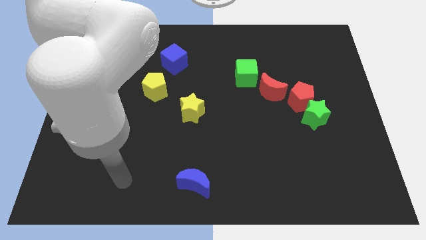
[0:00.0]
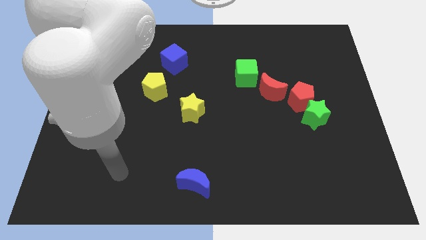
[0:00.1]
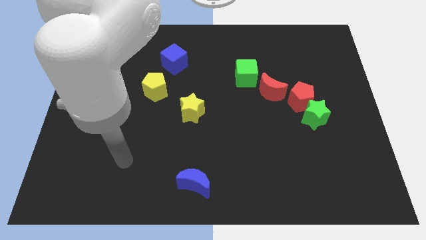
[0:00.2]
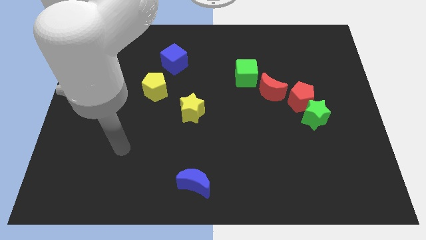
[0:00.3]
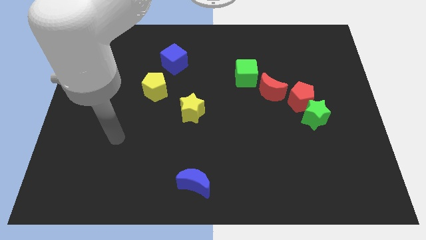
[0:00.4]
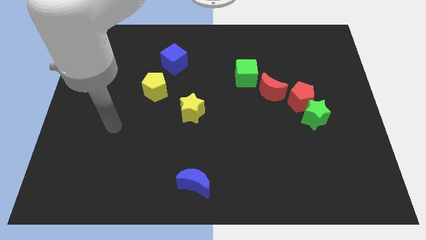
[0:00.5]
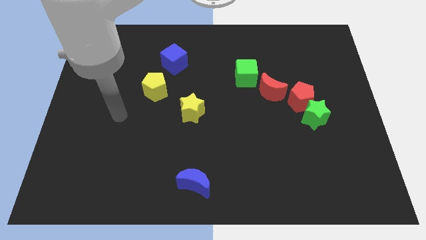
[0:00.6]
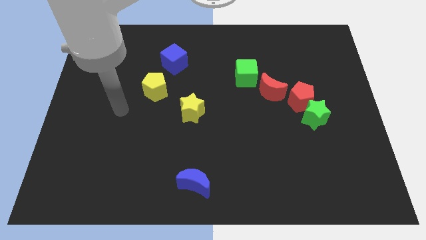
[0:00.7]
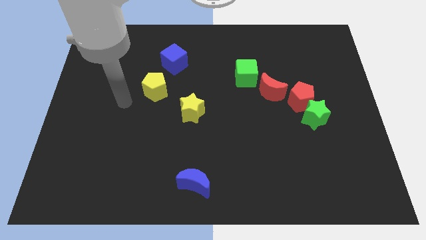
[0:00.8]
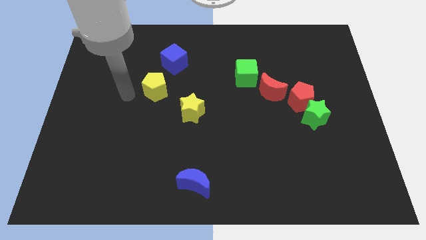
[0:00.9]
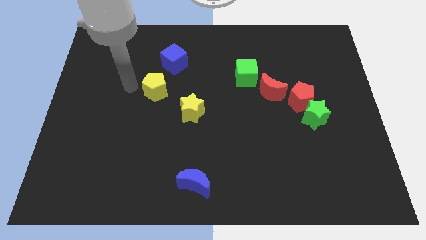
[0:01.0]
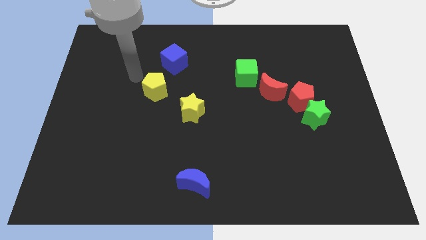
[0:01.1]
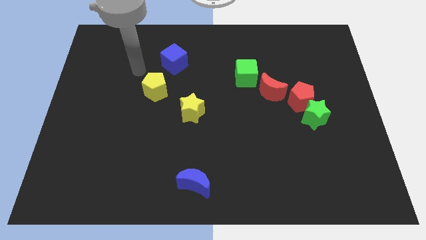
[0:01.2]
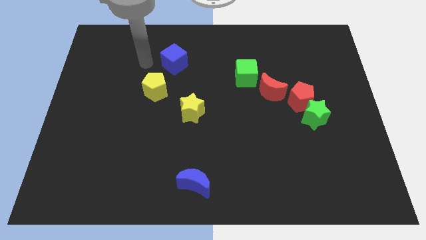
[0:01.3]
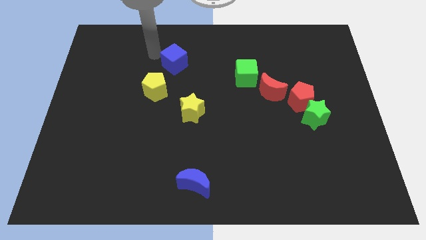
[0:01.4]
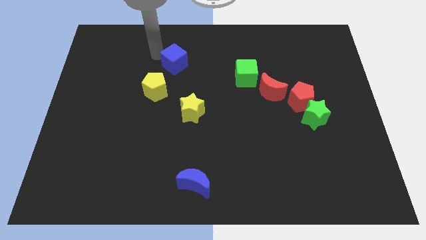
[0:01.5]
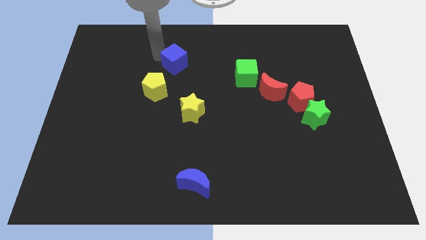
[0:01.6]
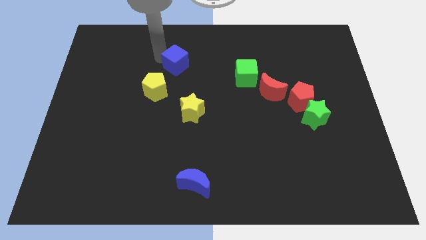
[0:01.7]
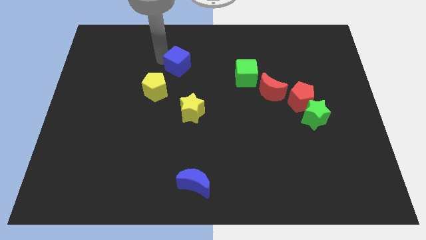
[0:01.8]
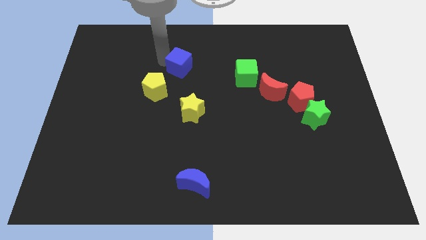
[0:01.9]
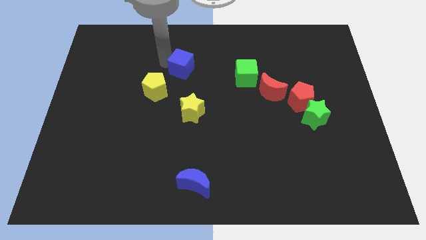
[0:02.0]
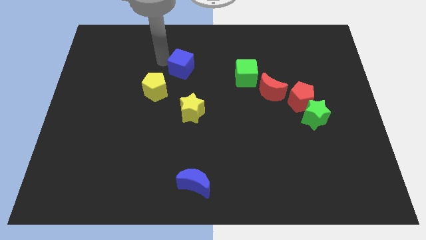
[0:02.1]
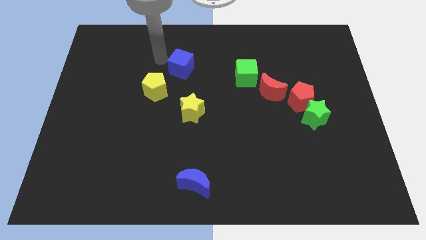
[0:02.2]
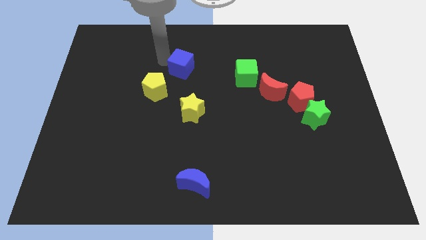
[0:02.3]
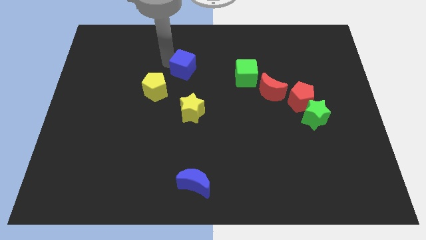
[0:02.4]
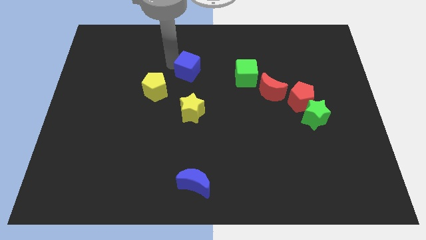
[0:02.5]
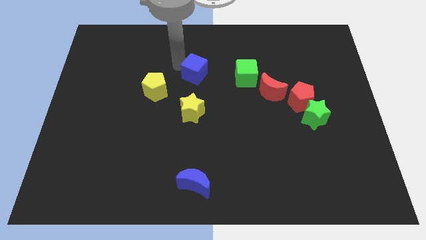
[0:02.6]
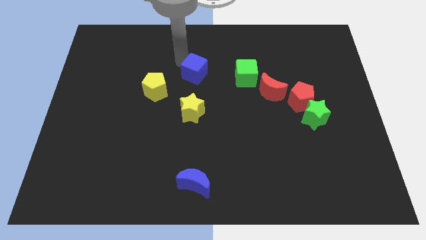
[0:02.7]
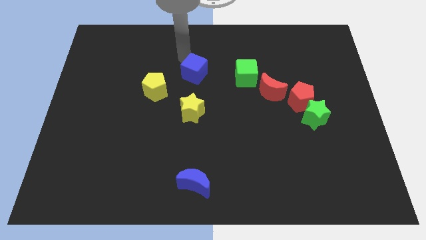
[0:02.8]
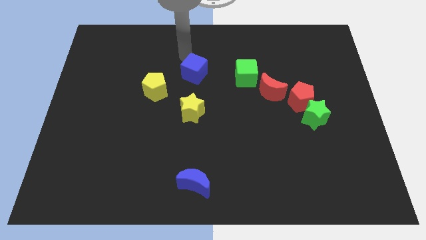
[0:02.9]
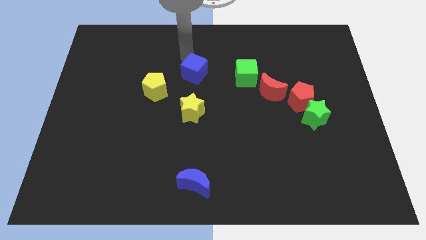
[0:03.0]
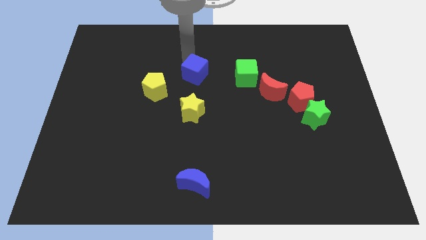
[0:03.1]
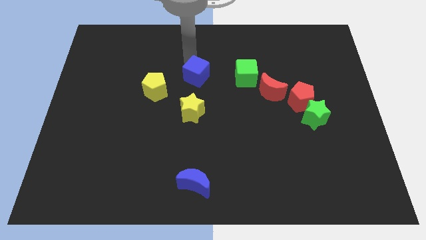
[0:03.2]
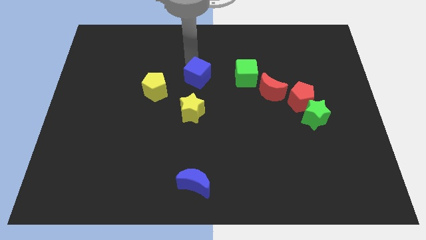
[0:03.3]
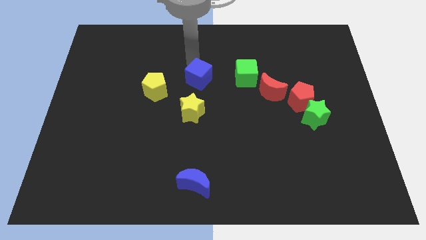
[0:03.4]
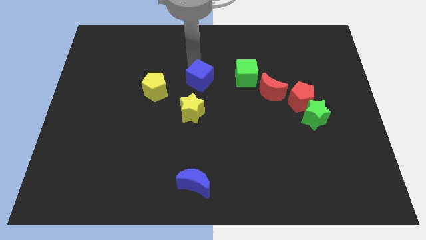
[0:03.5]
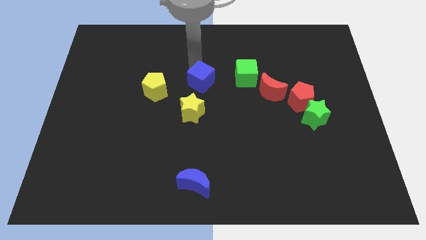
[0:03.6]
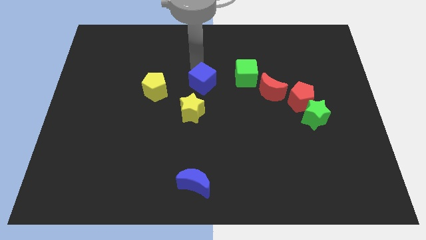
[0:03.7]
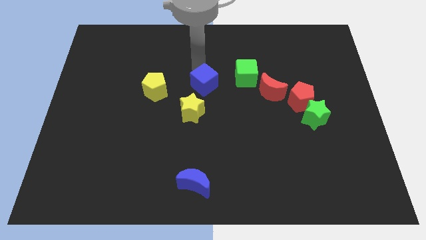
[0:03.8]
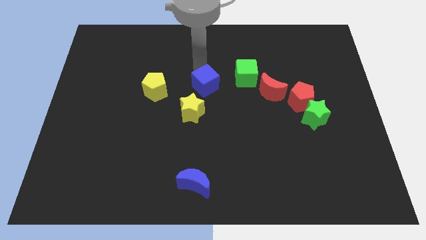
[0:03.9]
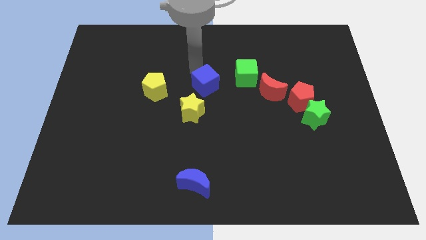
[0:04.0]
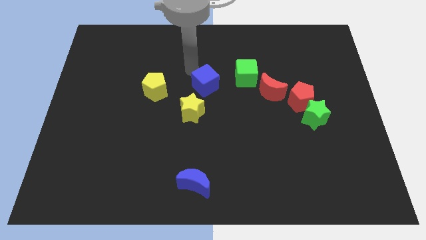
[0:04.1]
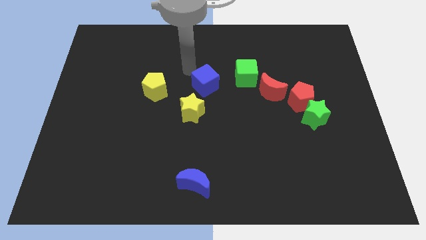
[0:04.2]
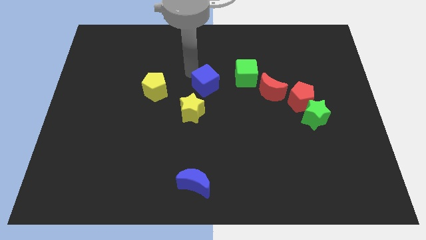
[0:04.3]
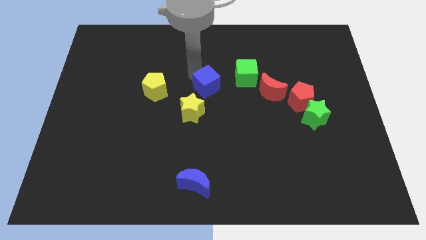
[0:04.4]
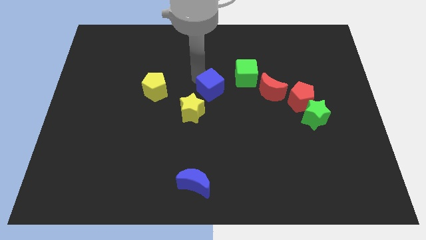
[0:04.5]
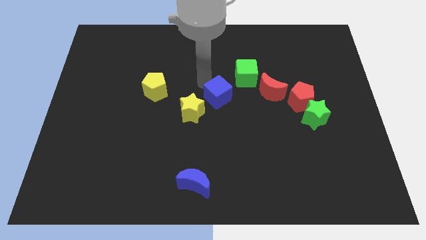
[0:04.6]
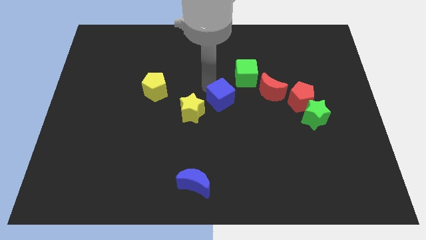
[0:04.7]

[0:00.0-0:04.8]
put the blue cube to the right of the yellow star

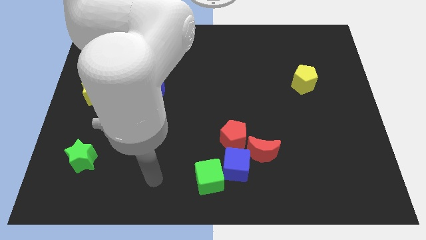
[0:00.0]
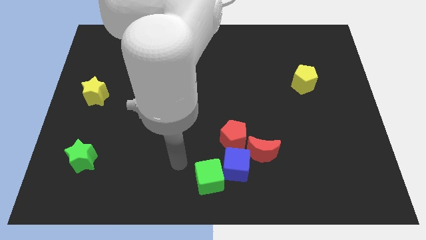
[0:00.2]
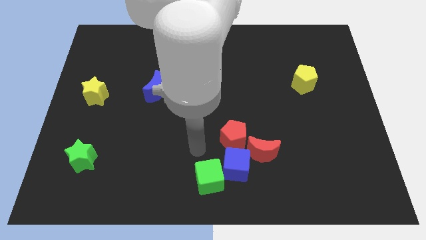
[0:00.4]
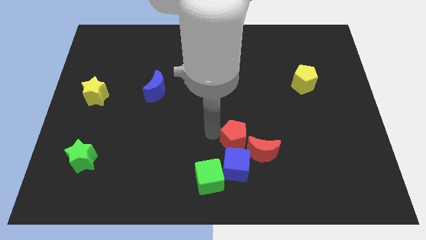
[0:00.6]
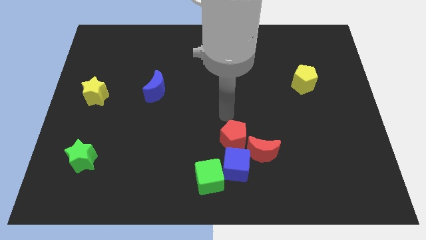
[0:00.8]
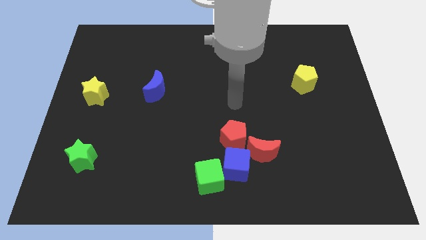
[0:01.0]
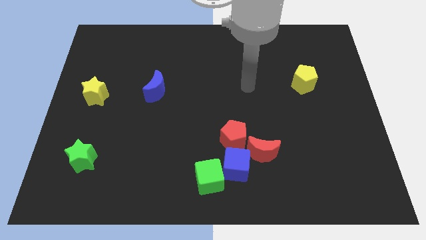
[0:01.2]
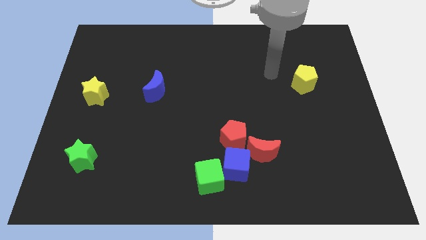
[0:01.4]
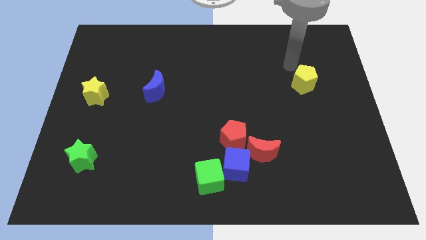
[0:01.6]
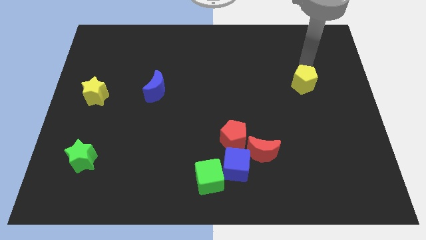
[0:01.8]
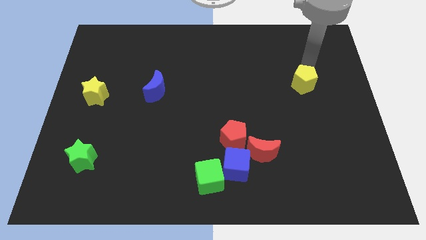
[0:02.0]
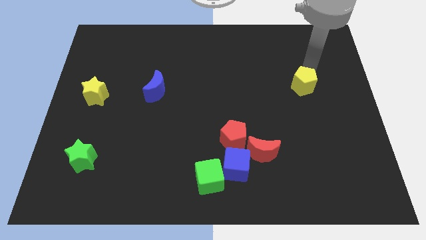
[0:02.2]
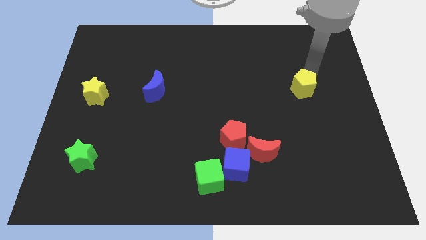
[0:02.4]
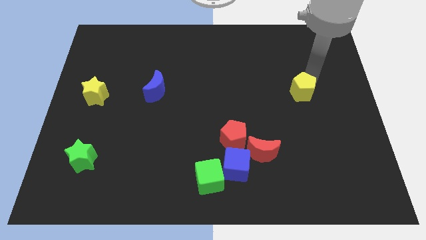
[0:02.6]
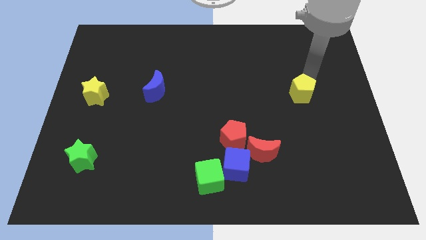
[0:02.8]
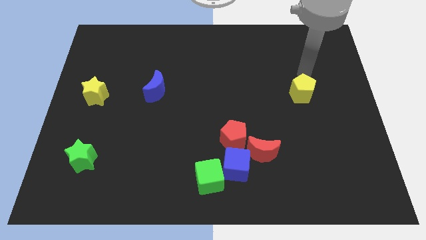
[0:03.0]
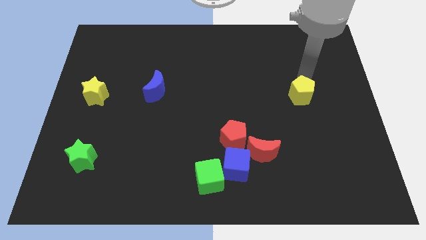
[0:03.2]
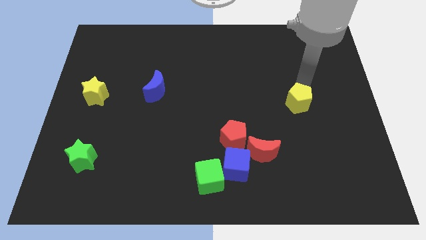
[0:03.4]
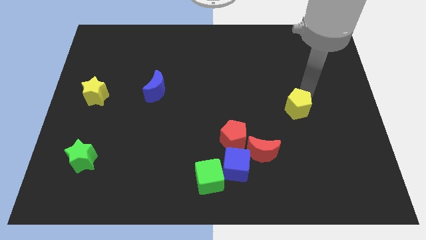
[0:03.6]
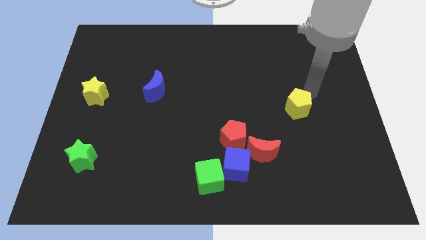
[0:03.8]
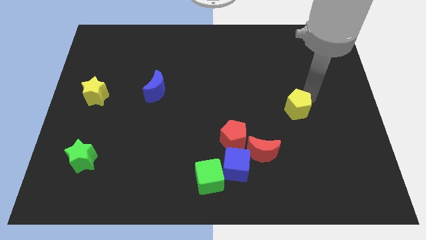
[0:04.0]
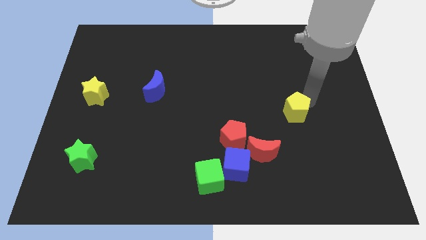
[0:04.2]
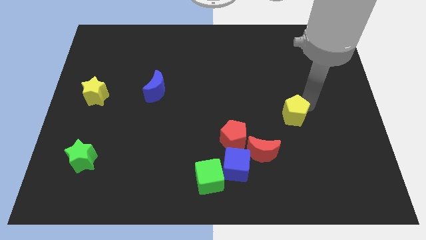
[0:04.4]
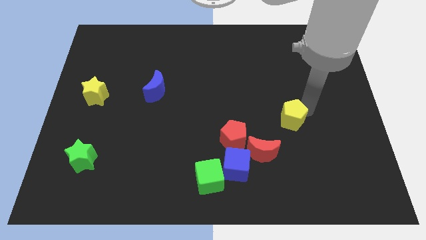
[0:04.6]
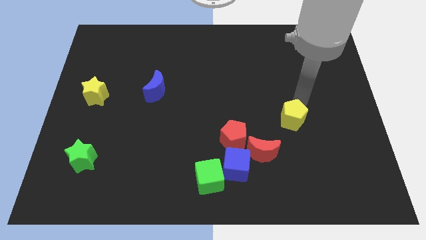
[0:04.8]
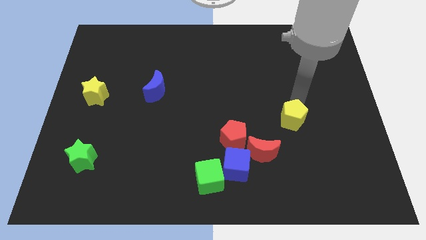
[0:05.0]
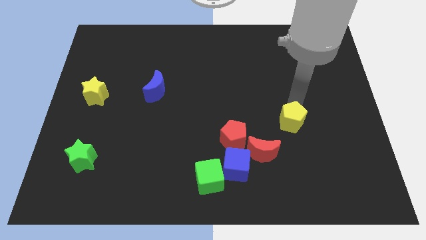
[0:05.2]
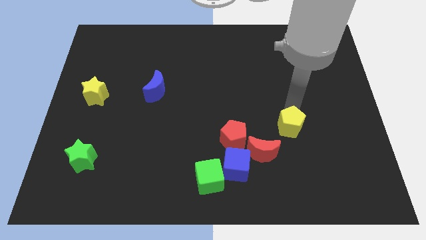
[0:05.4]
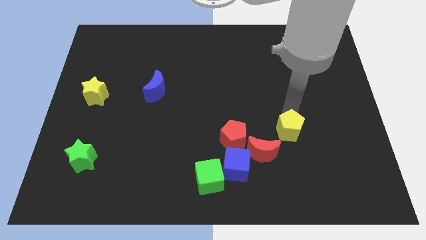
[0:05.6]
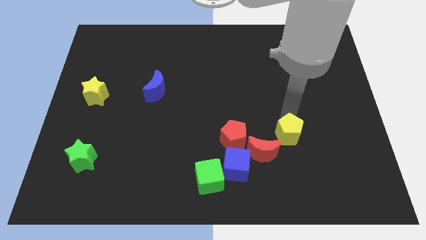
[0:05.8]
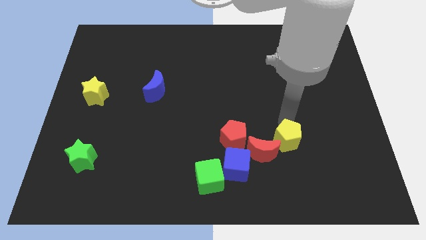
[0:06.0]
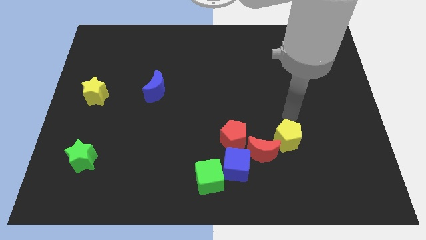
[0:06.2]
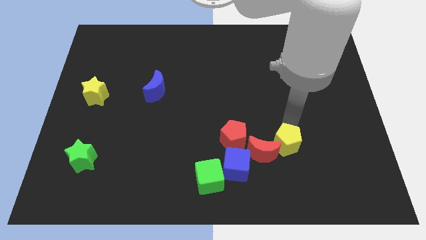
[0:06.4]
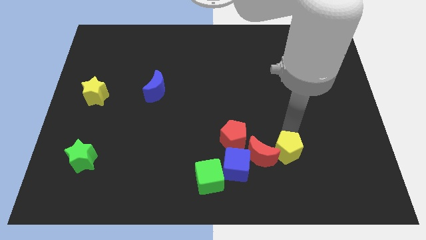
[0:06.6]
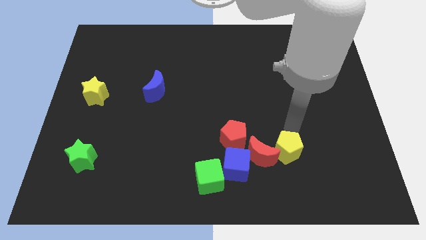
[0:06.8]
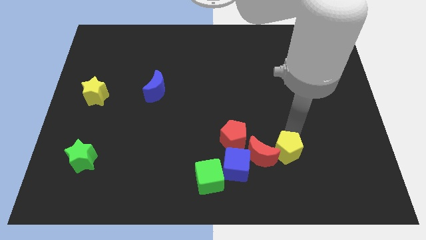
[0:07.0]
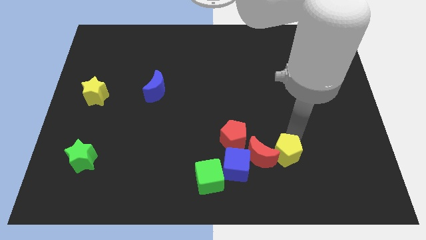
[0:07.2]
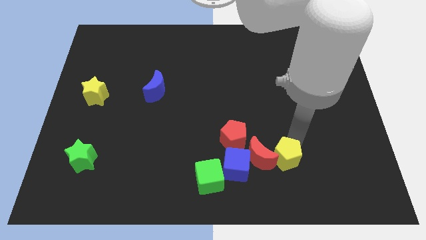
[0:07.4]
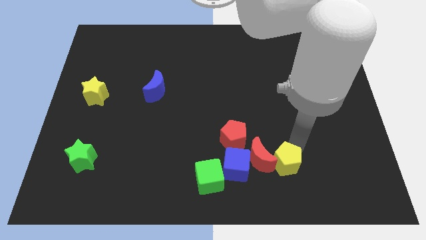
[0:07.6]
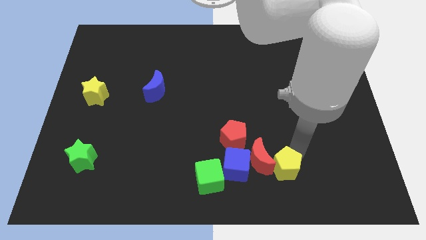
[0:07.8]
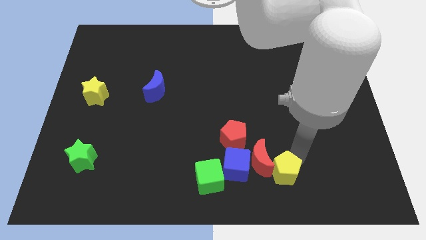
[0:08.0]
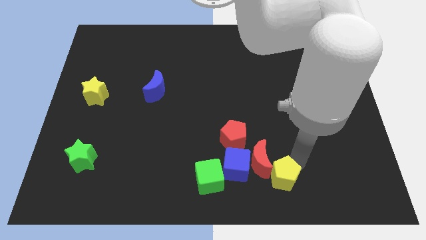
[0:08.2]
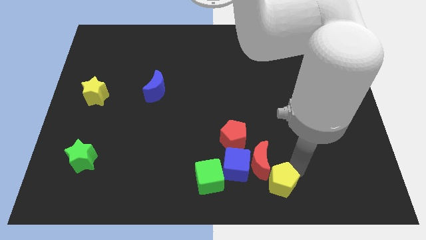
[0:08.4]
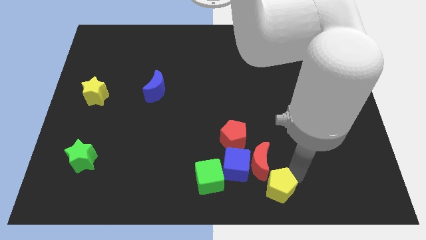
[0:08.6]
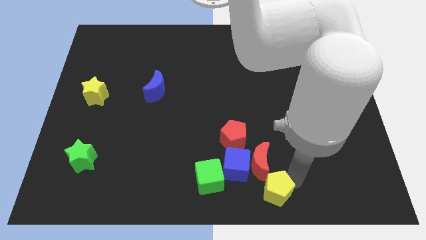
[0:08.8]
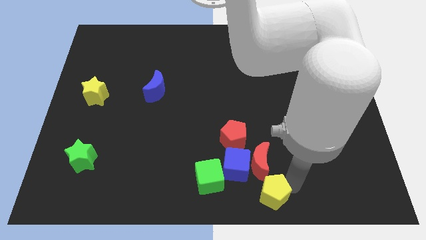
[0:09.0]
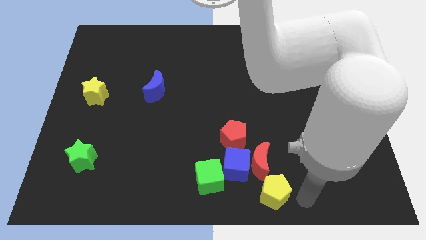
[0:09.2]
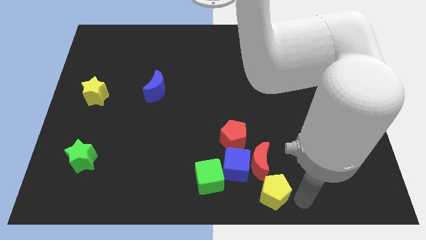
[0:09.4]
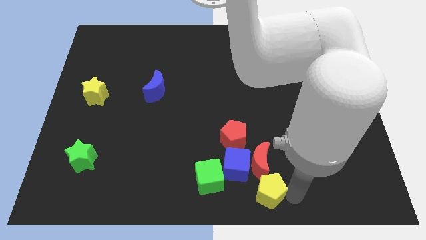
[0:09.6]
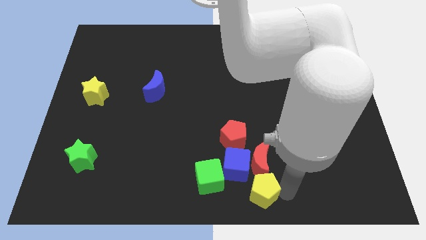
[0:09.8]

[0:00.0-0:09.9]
put the yellow pentagon to the bottom left of the red moon
